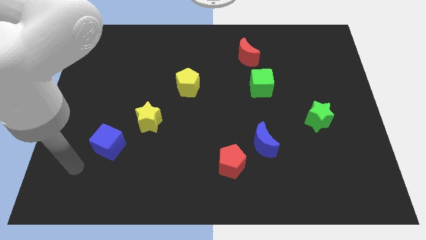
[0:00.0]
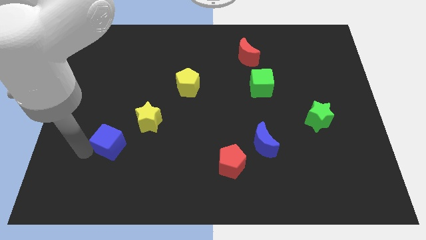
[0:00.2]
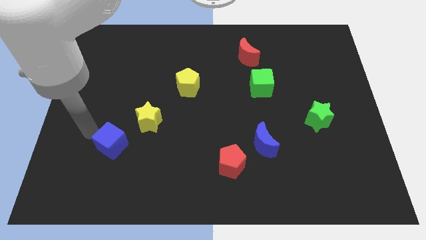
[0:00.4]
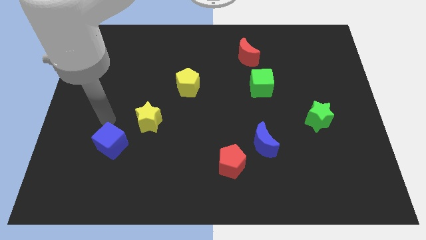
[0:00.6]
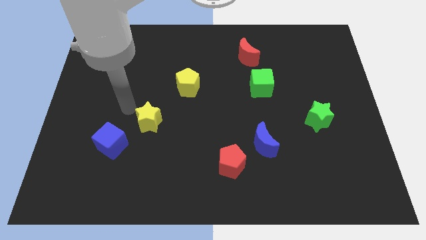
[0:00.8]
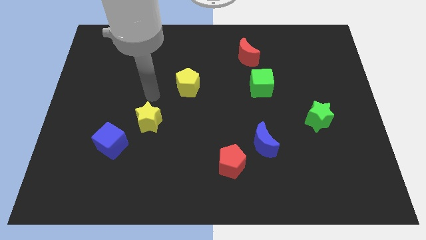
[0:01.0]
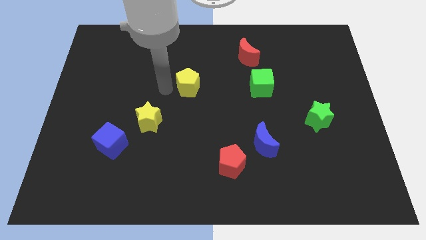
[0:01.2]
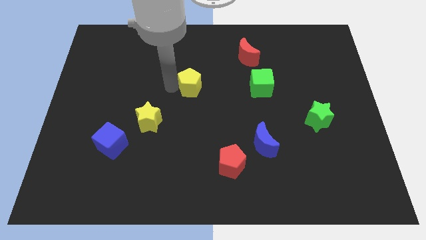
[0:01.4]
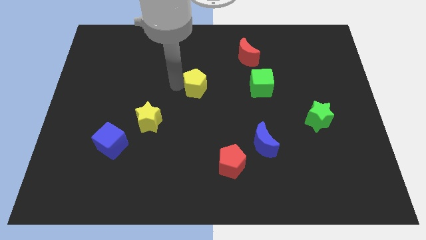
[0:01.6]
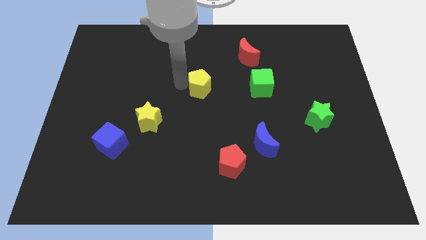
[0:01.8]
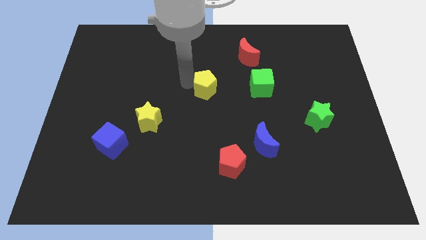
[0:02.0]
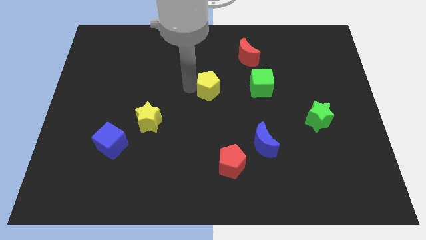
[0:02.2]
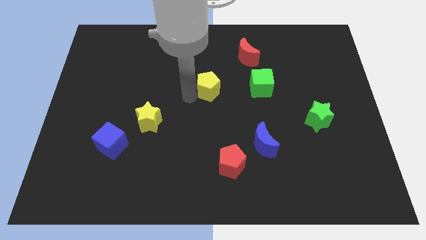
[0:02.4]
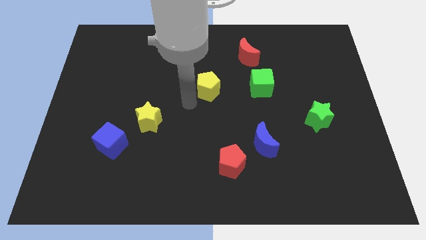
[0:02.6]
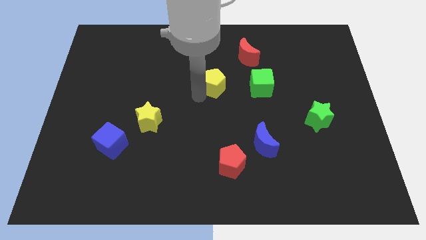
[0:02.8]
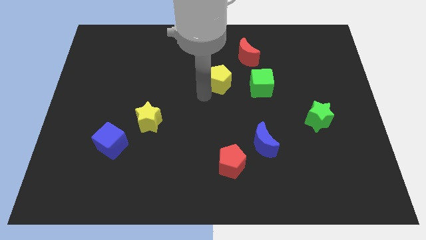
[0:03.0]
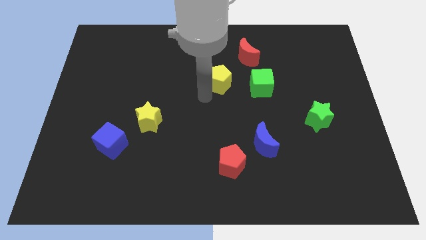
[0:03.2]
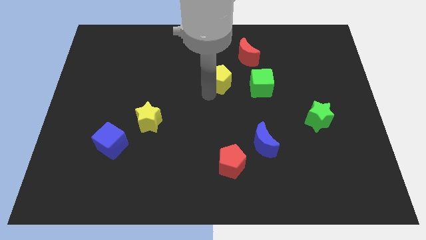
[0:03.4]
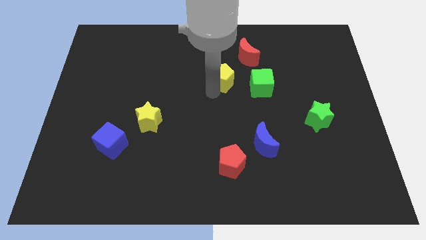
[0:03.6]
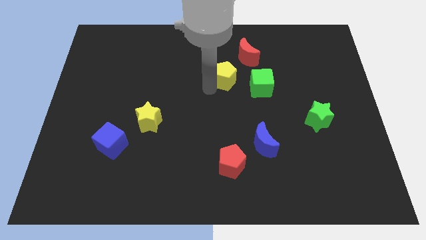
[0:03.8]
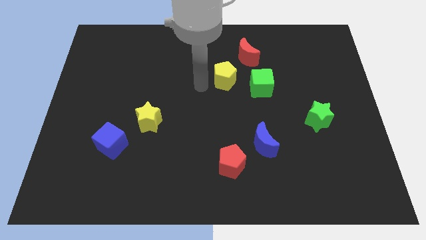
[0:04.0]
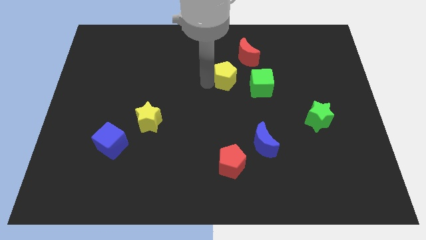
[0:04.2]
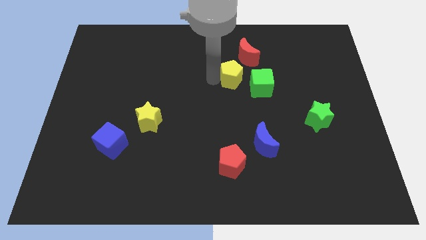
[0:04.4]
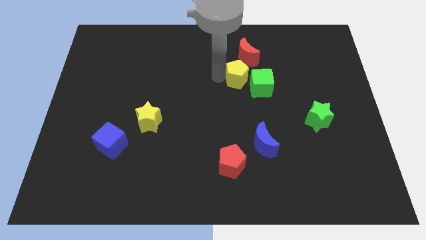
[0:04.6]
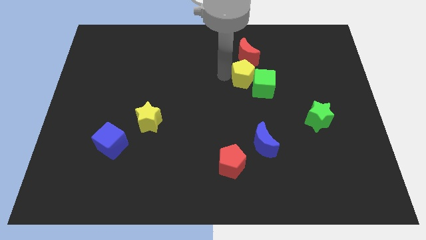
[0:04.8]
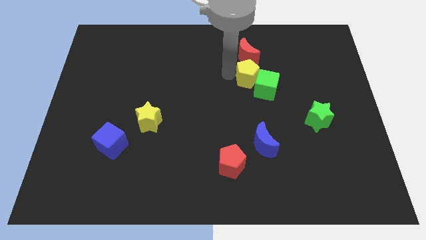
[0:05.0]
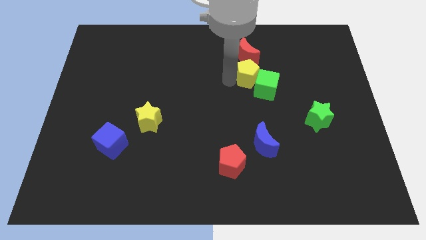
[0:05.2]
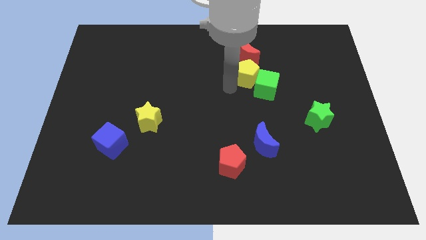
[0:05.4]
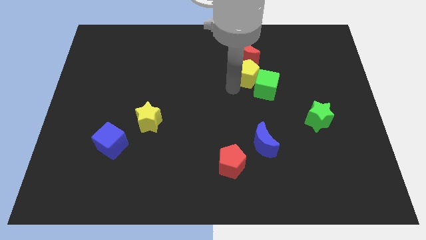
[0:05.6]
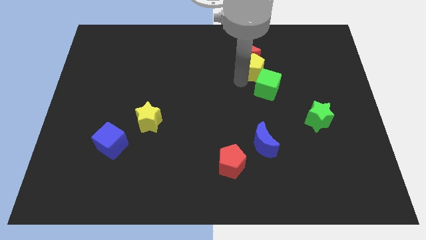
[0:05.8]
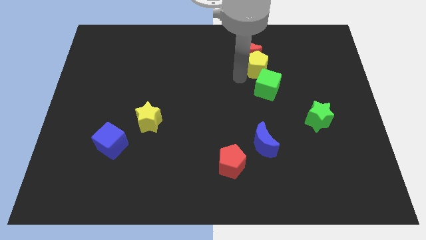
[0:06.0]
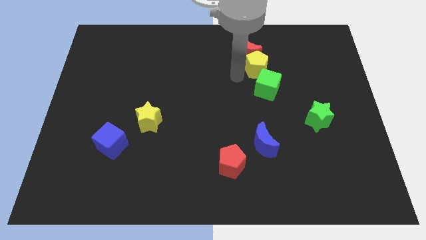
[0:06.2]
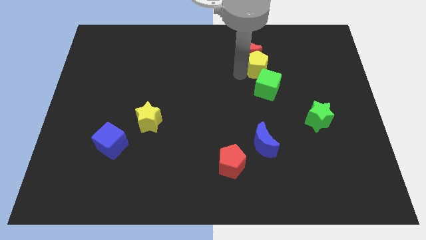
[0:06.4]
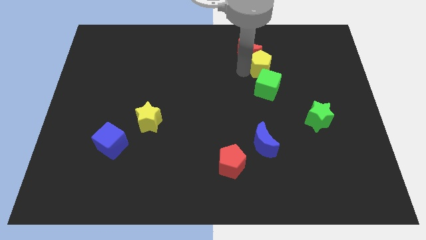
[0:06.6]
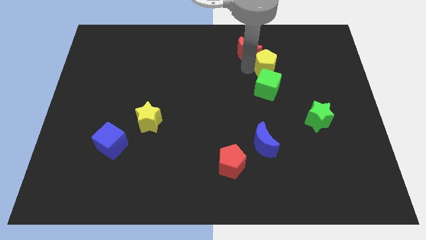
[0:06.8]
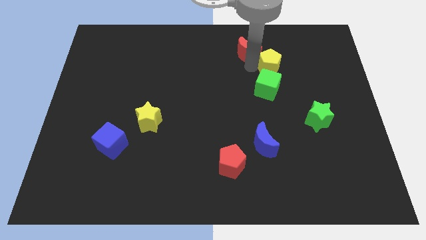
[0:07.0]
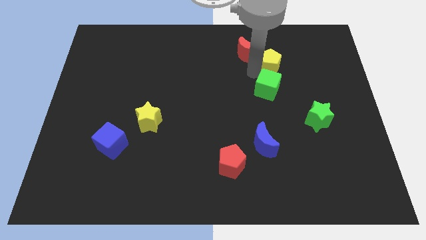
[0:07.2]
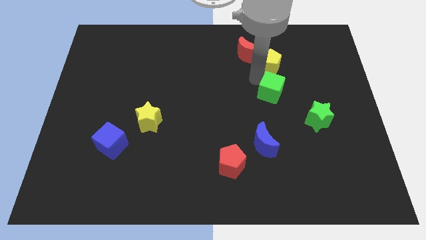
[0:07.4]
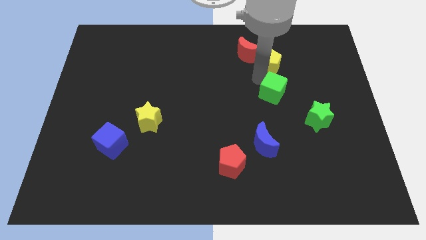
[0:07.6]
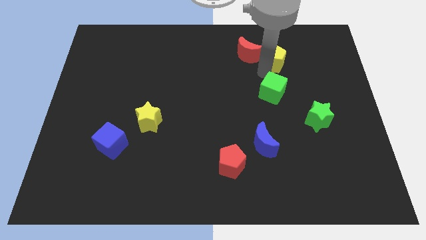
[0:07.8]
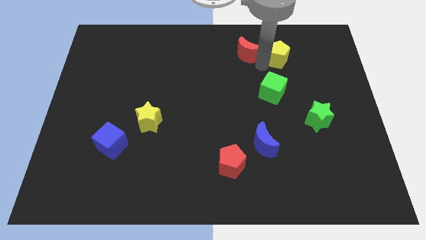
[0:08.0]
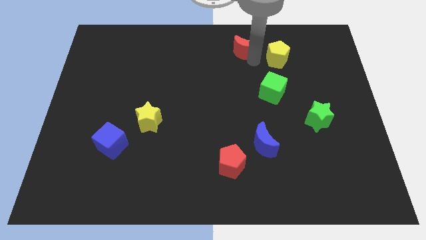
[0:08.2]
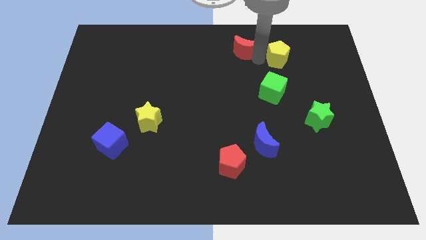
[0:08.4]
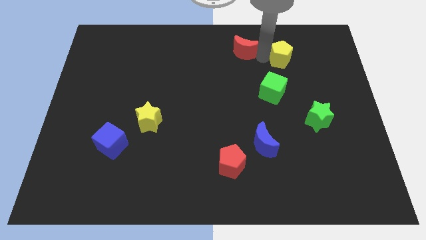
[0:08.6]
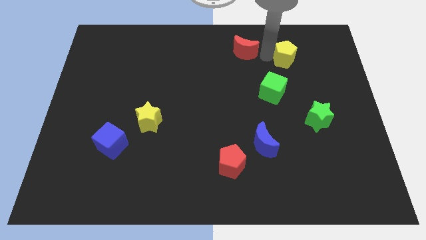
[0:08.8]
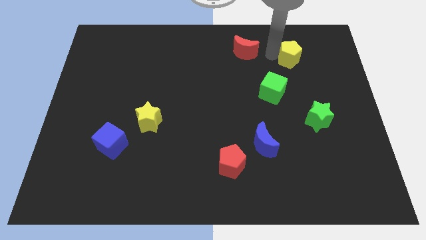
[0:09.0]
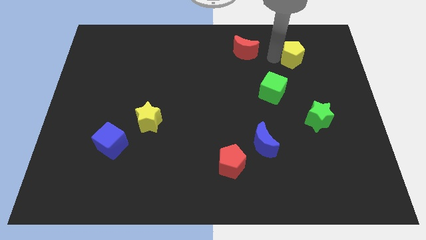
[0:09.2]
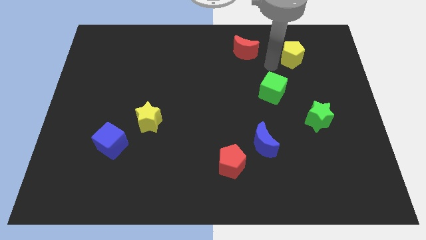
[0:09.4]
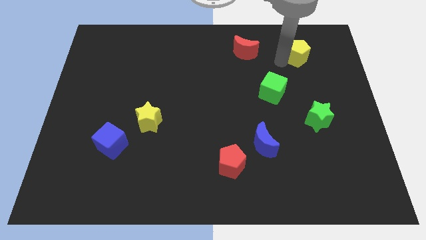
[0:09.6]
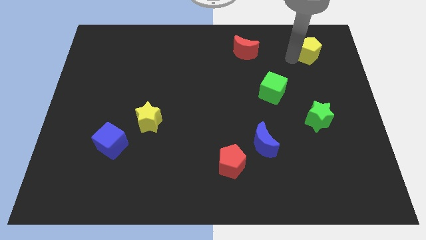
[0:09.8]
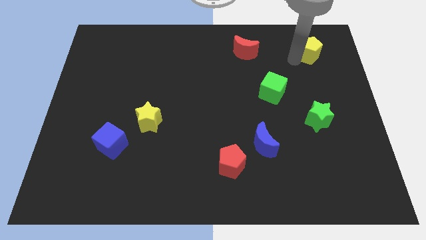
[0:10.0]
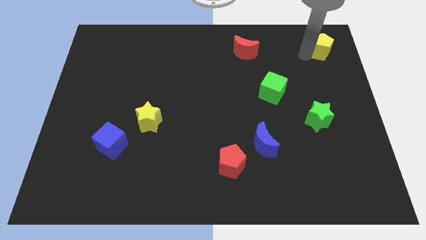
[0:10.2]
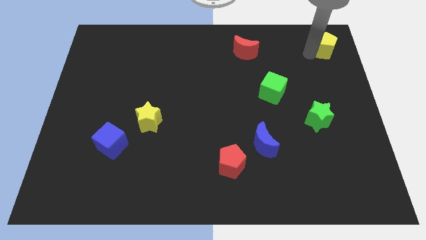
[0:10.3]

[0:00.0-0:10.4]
move the yellow pentagon to the top right corner

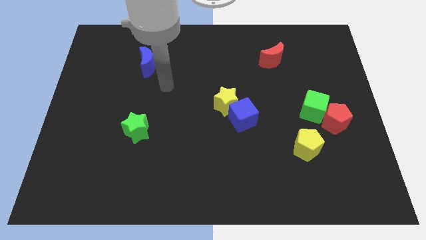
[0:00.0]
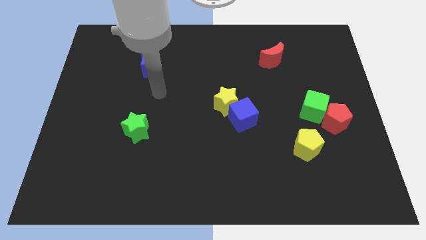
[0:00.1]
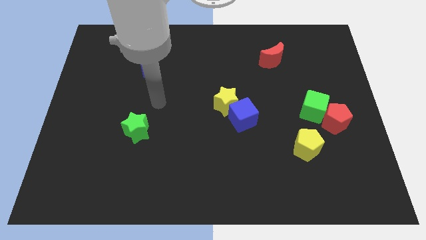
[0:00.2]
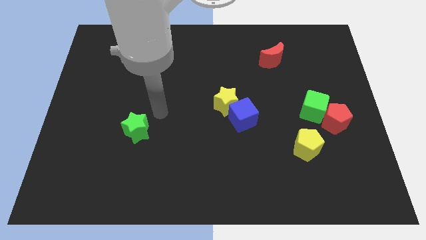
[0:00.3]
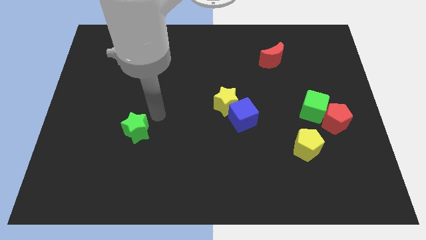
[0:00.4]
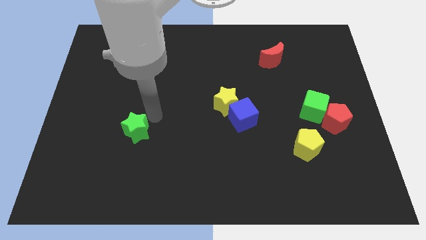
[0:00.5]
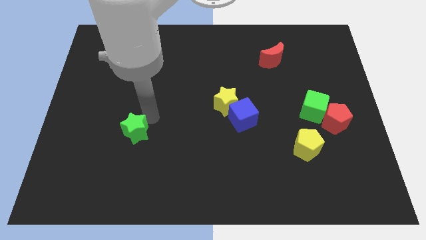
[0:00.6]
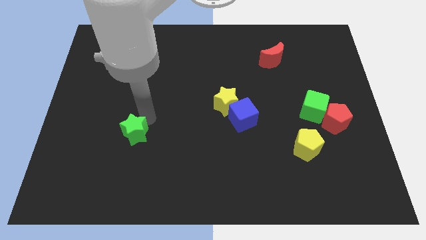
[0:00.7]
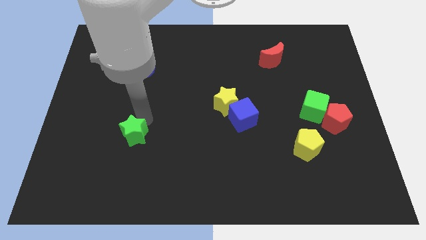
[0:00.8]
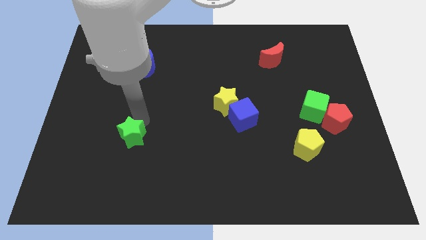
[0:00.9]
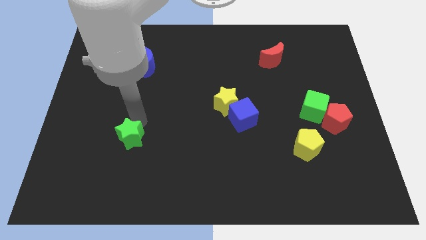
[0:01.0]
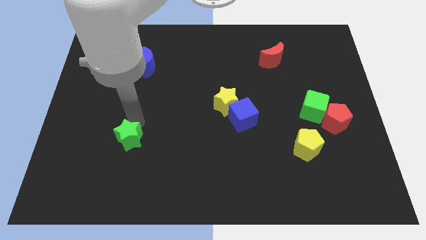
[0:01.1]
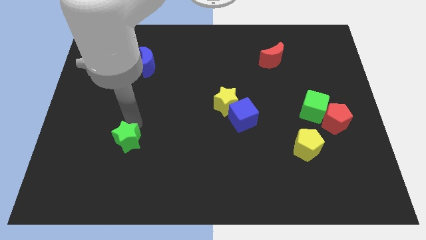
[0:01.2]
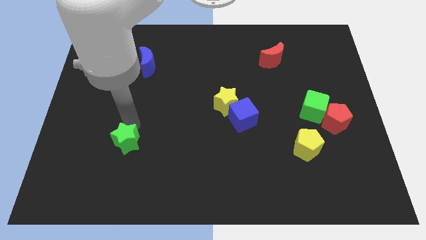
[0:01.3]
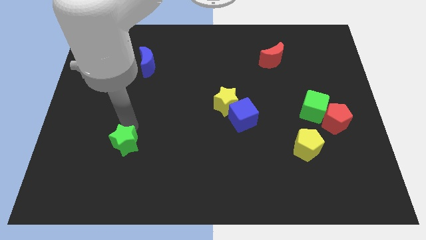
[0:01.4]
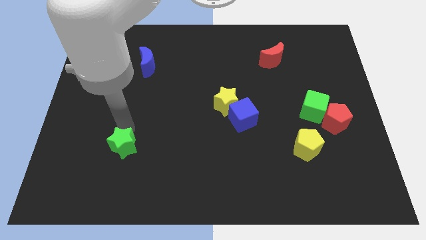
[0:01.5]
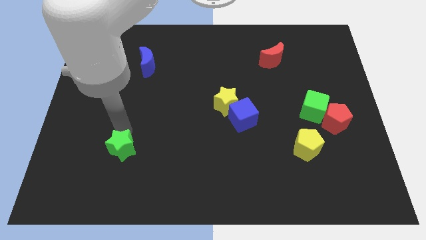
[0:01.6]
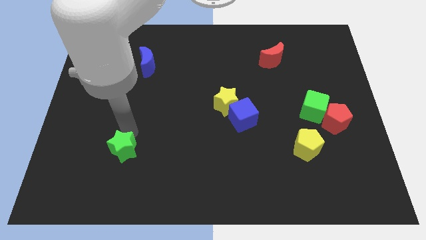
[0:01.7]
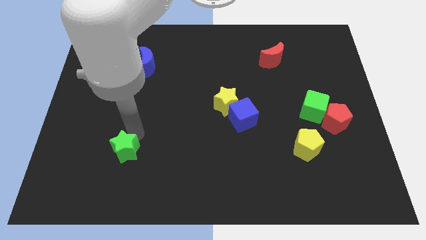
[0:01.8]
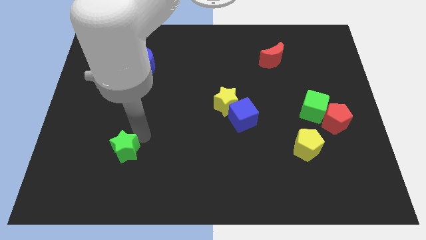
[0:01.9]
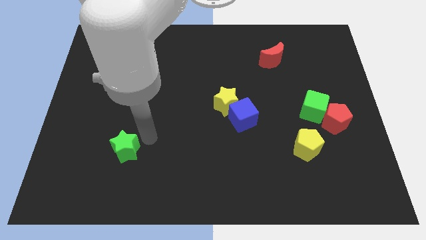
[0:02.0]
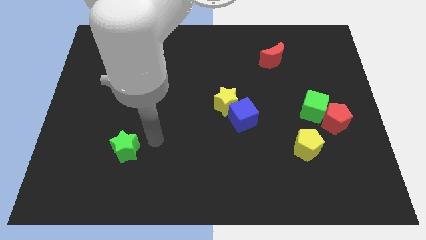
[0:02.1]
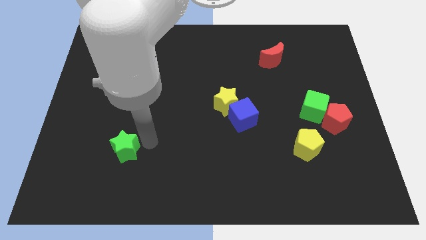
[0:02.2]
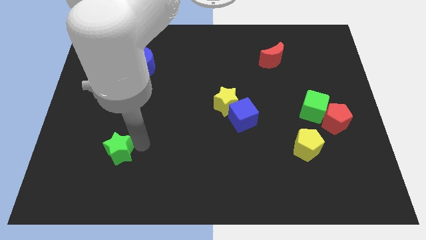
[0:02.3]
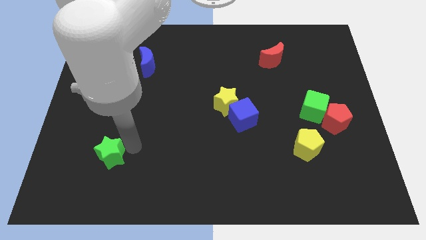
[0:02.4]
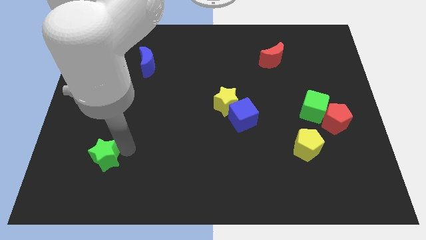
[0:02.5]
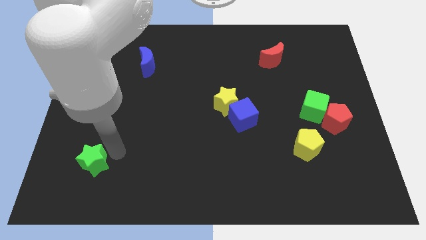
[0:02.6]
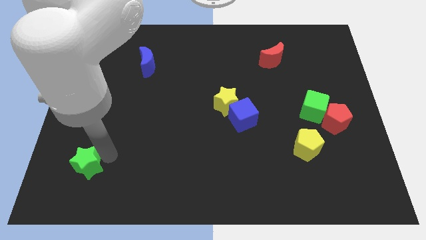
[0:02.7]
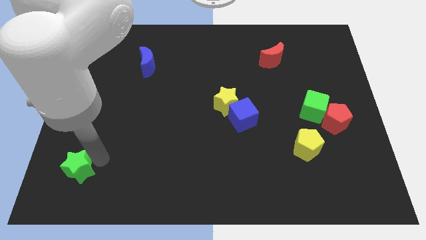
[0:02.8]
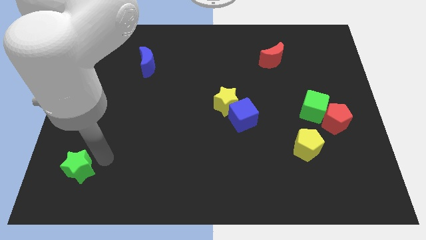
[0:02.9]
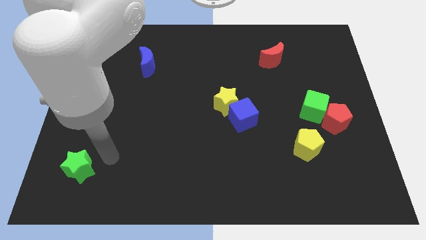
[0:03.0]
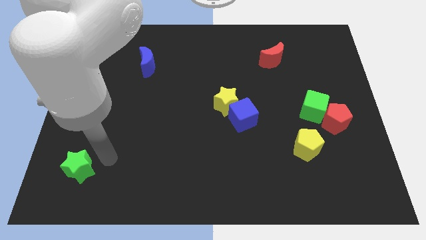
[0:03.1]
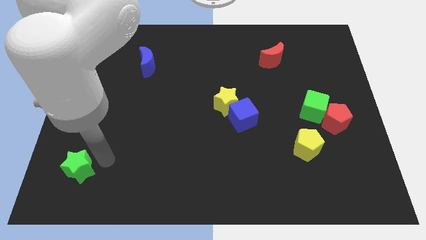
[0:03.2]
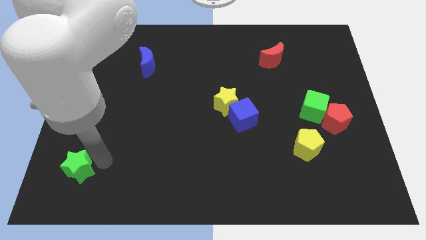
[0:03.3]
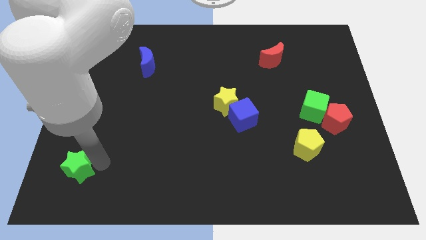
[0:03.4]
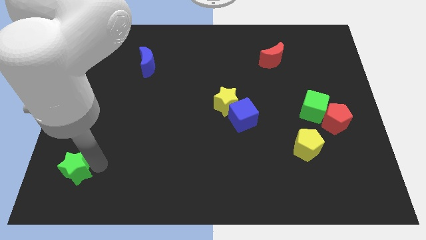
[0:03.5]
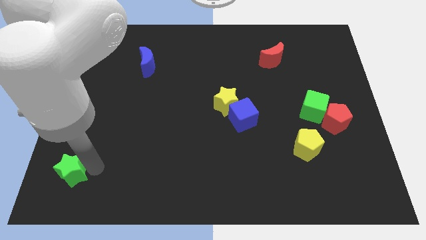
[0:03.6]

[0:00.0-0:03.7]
slide the green star to the lower left corner
